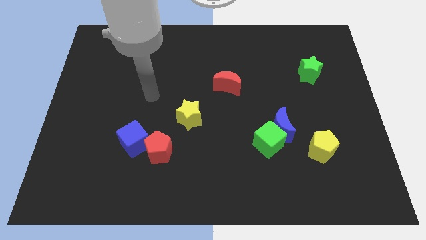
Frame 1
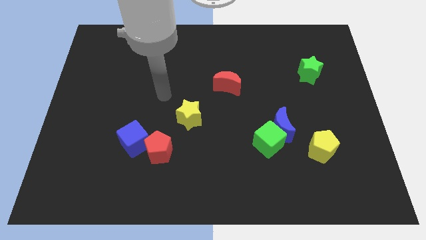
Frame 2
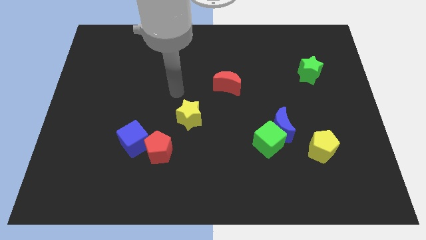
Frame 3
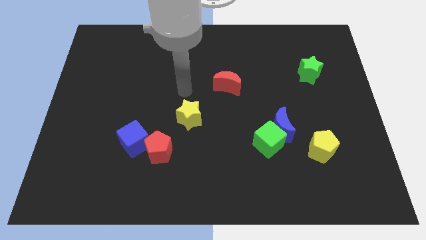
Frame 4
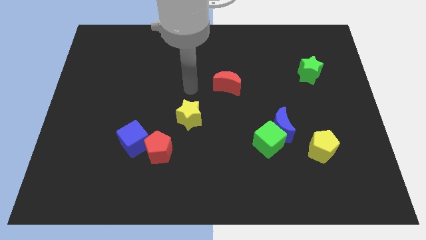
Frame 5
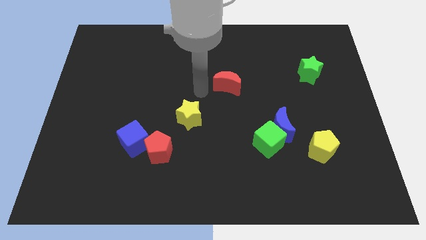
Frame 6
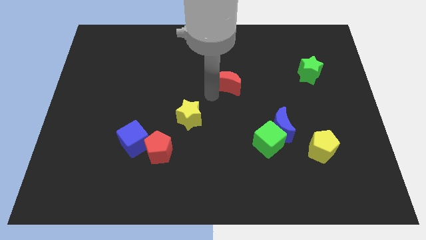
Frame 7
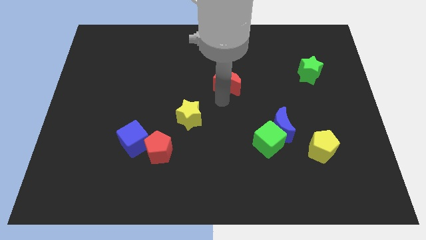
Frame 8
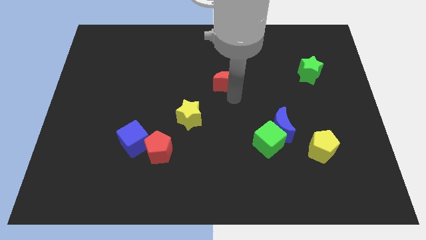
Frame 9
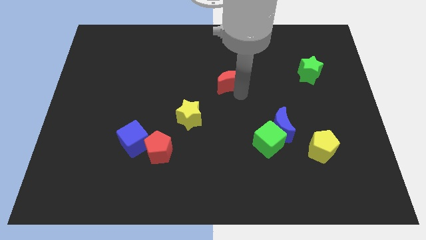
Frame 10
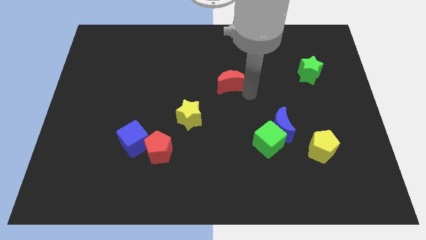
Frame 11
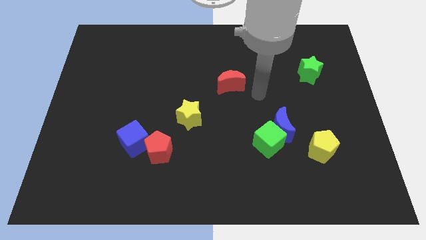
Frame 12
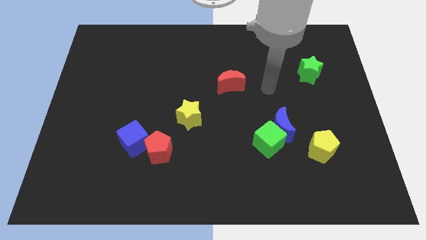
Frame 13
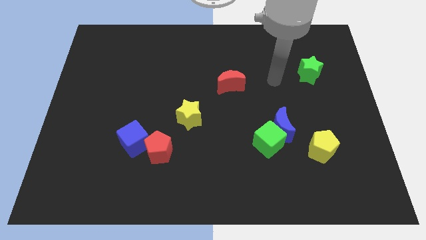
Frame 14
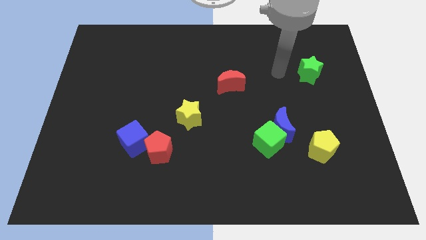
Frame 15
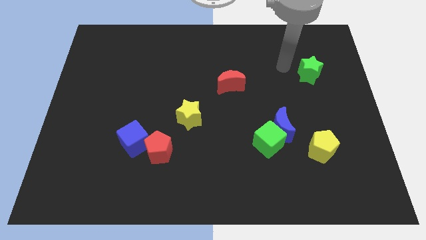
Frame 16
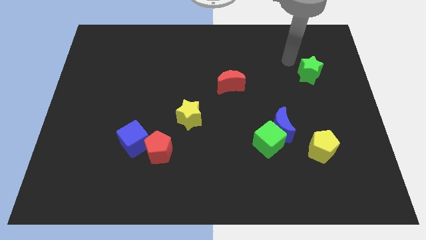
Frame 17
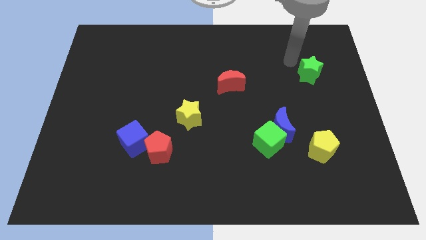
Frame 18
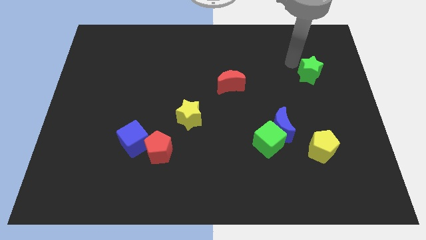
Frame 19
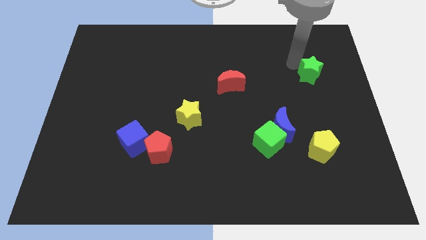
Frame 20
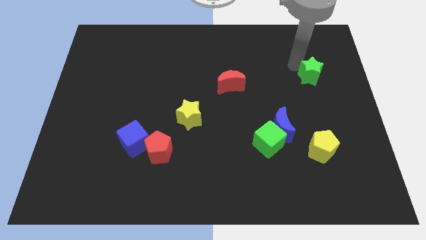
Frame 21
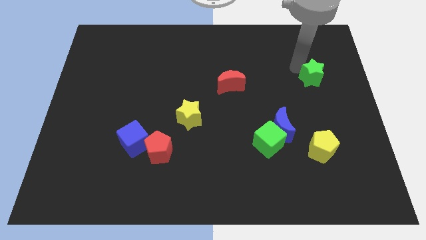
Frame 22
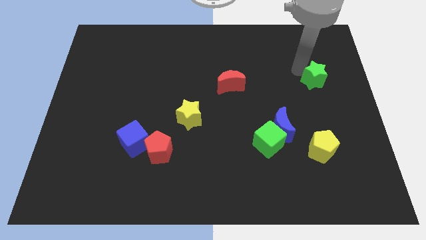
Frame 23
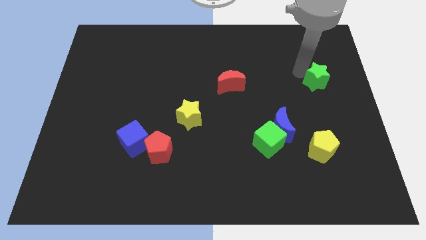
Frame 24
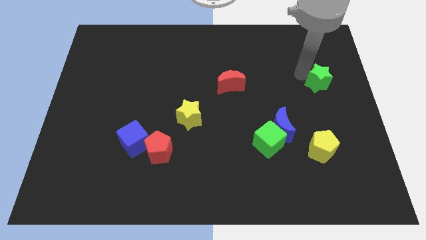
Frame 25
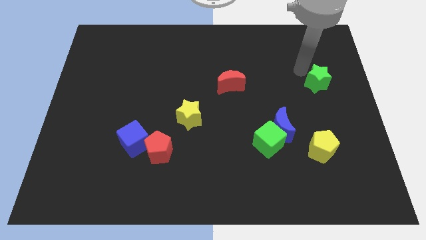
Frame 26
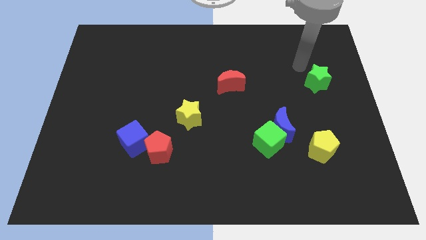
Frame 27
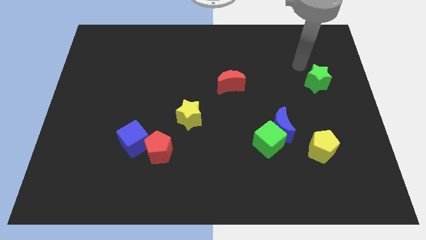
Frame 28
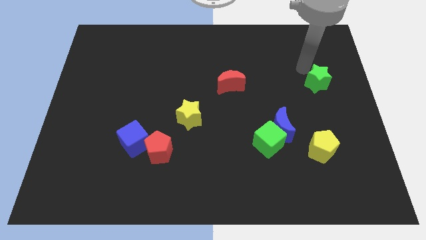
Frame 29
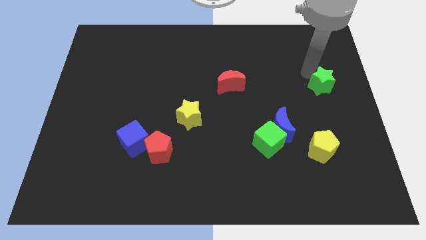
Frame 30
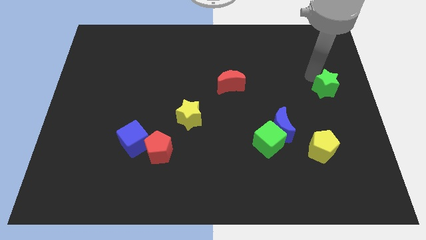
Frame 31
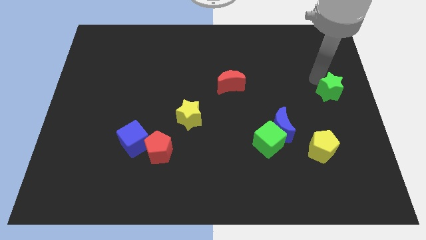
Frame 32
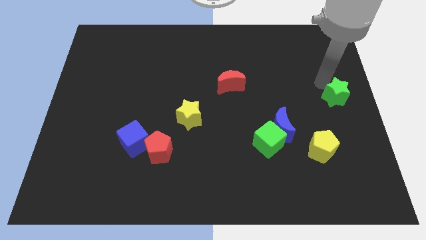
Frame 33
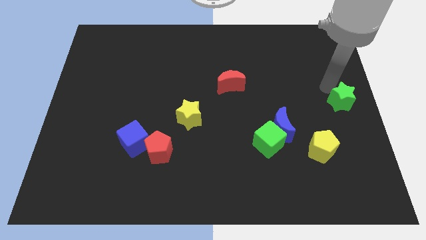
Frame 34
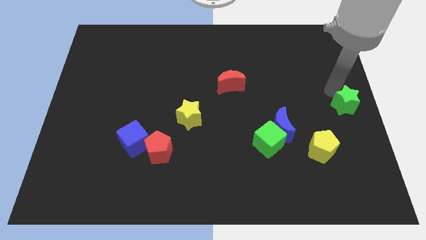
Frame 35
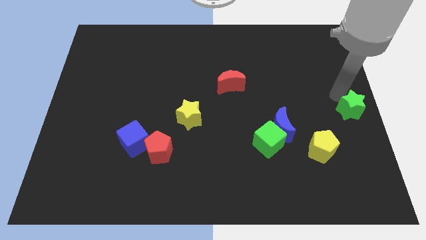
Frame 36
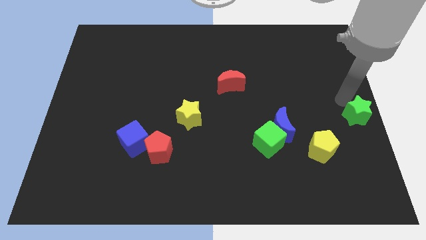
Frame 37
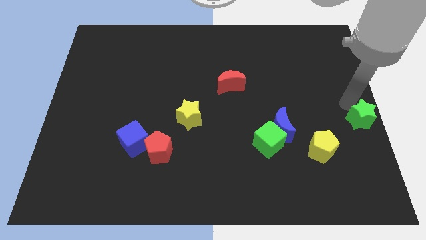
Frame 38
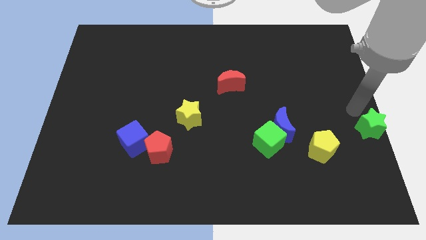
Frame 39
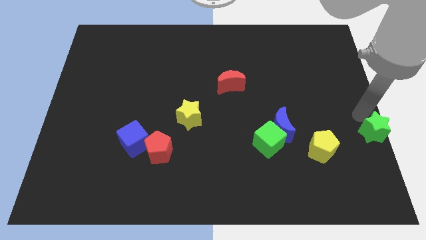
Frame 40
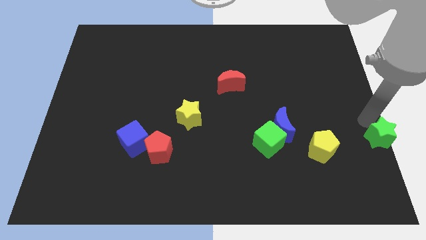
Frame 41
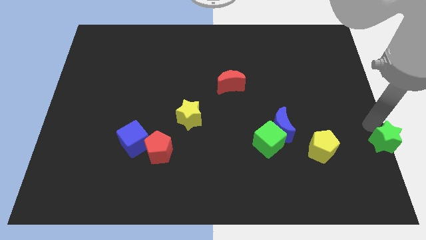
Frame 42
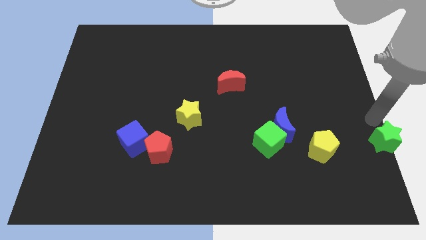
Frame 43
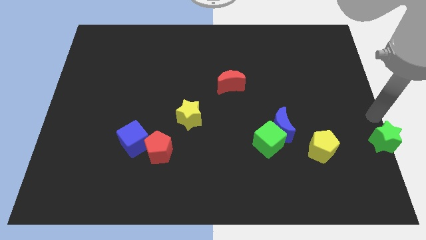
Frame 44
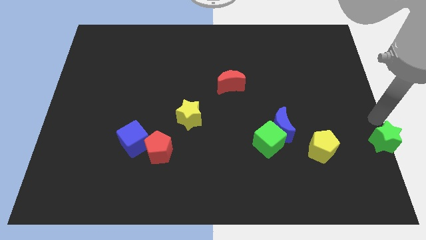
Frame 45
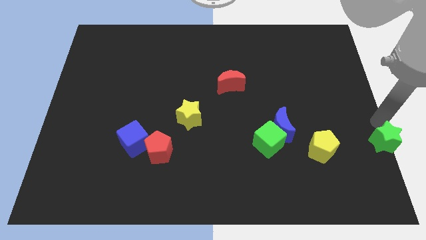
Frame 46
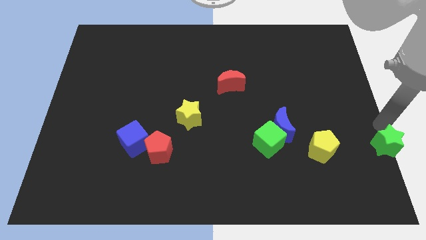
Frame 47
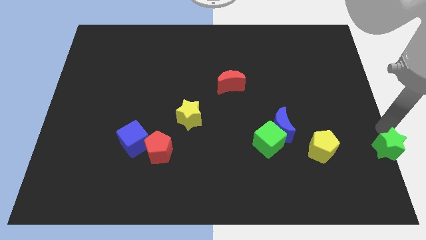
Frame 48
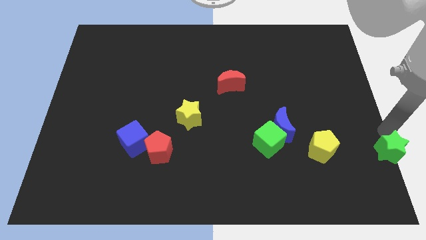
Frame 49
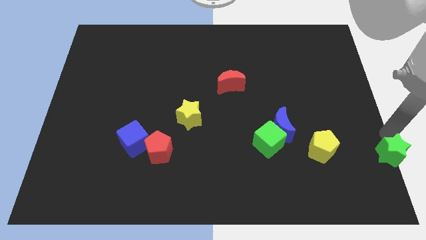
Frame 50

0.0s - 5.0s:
slide the green star to the bottom right corner

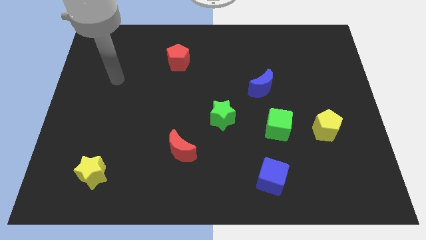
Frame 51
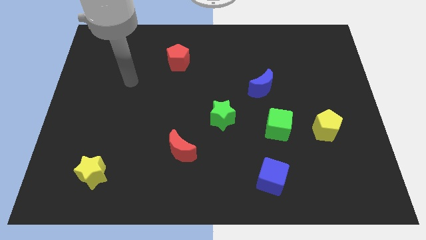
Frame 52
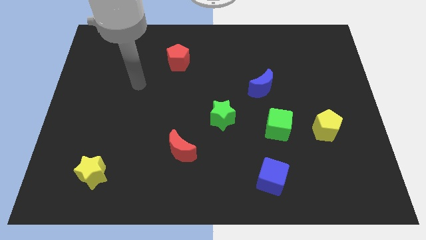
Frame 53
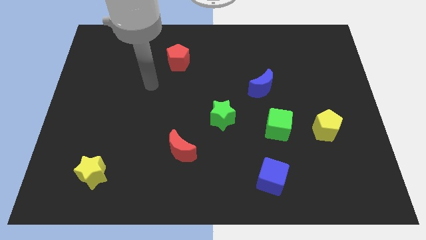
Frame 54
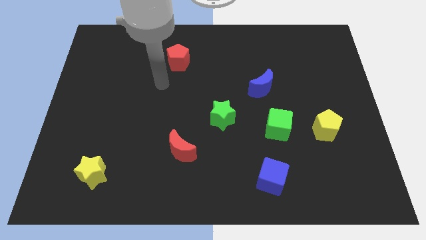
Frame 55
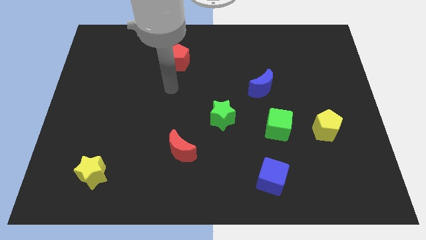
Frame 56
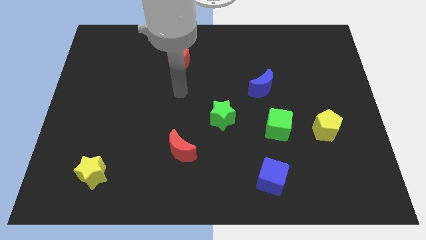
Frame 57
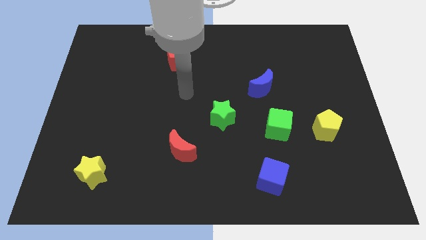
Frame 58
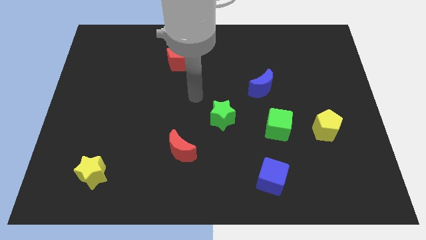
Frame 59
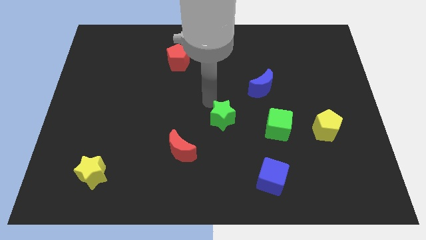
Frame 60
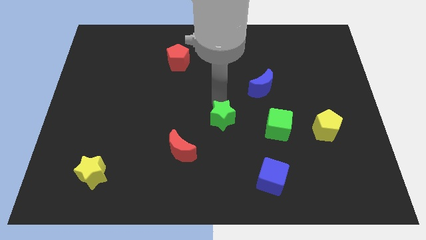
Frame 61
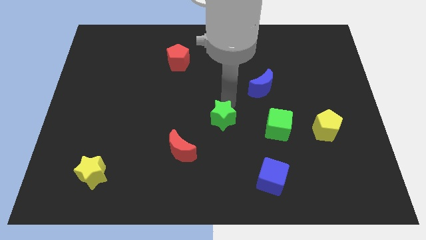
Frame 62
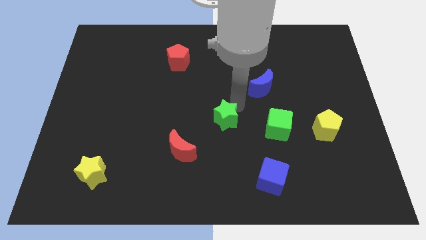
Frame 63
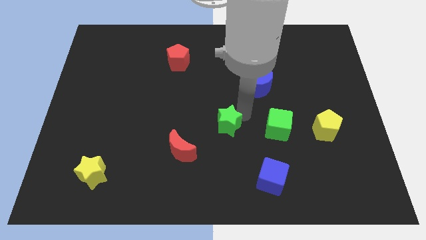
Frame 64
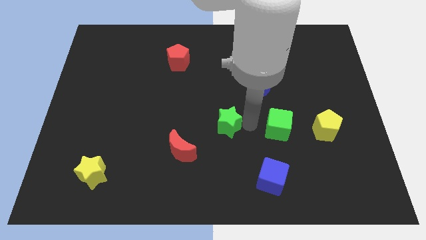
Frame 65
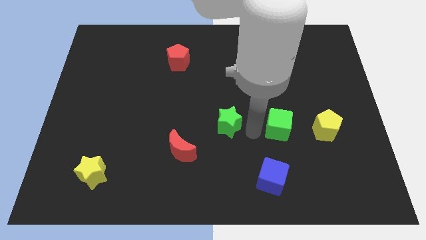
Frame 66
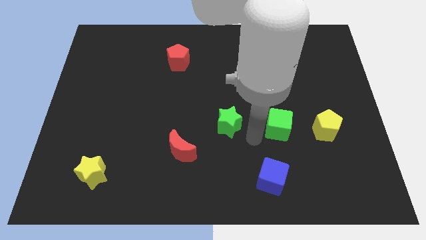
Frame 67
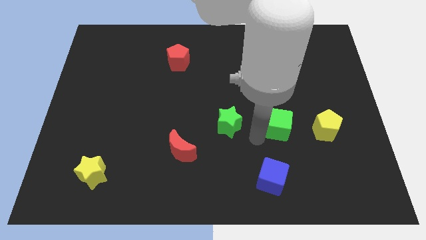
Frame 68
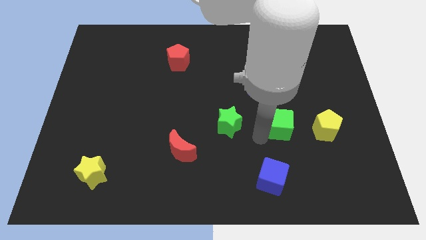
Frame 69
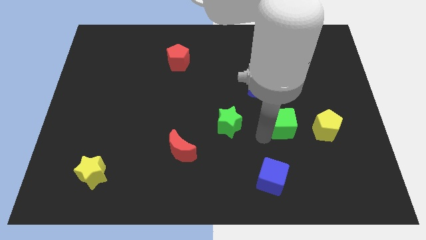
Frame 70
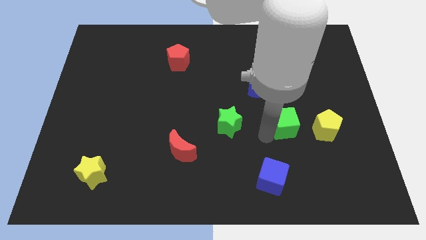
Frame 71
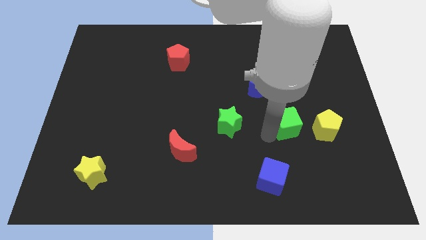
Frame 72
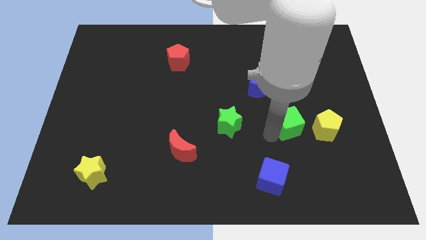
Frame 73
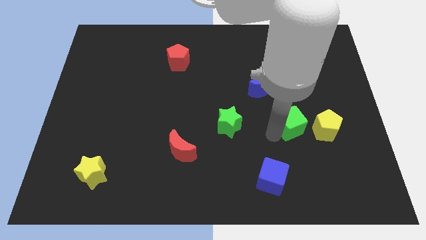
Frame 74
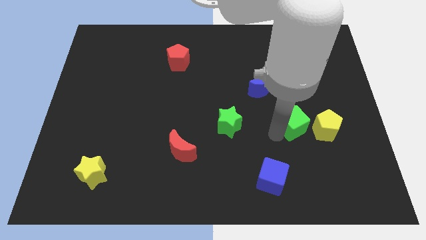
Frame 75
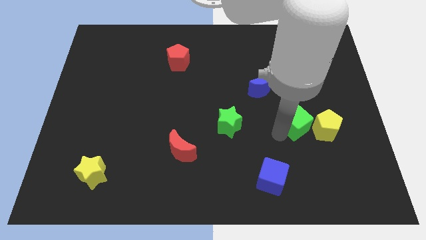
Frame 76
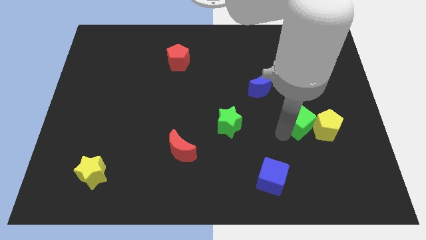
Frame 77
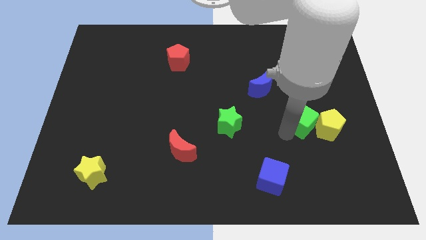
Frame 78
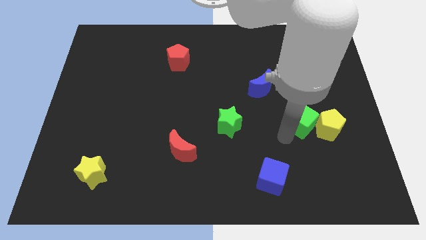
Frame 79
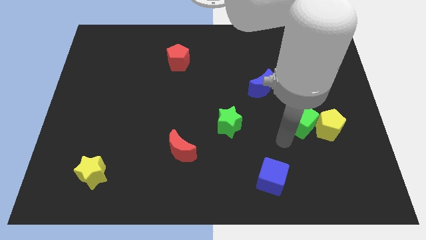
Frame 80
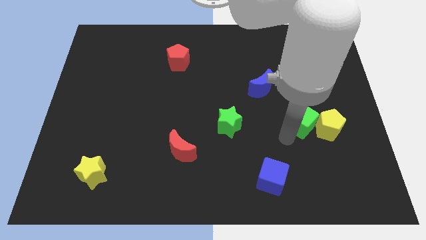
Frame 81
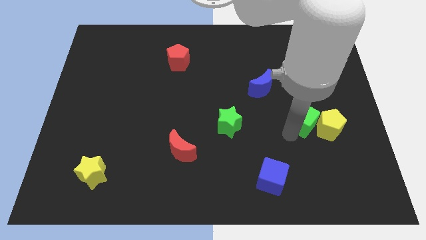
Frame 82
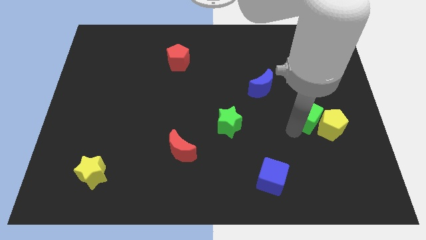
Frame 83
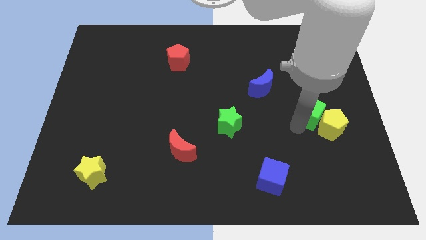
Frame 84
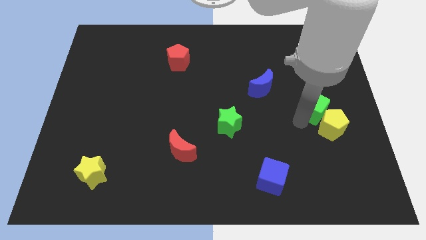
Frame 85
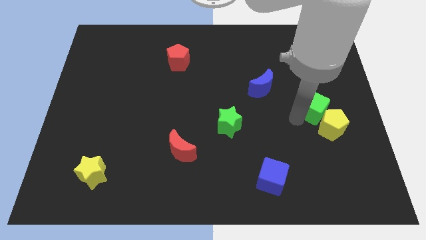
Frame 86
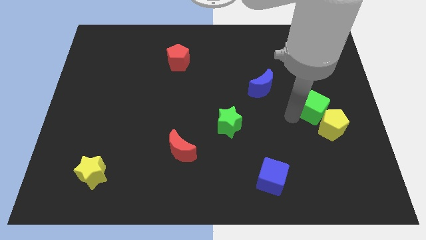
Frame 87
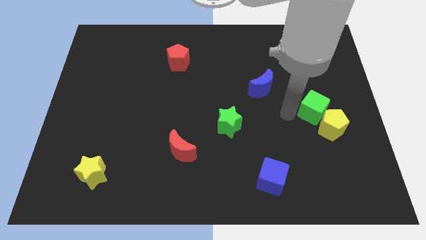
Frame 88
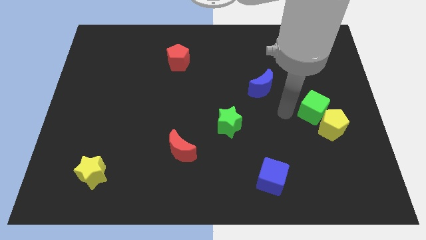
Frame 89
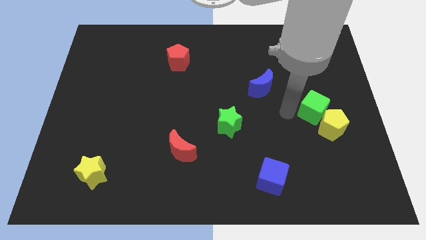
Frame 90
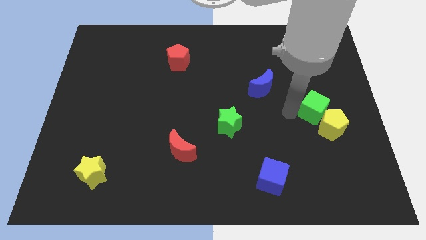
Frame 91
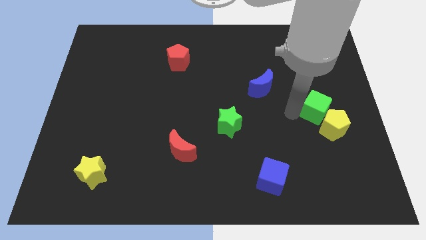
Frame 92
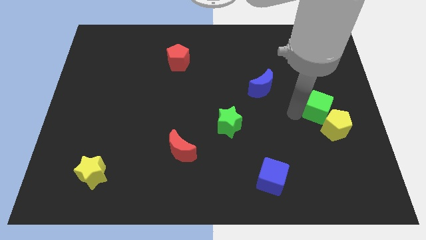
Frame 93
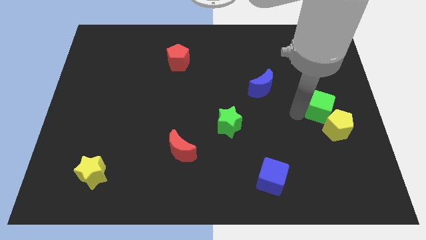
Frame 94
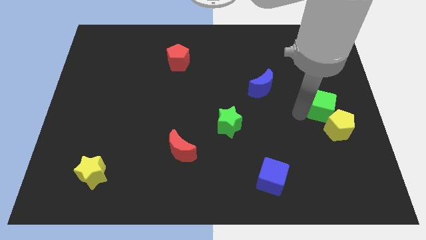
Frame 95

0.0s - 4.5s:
push the green cube to the right side of the board
